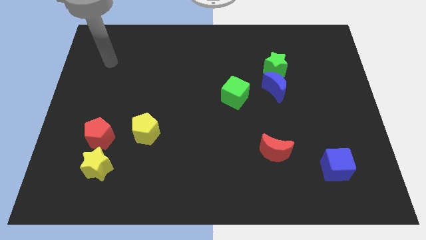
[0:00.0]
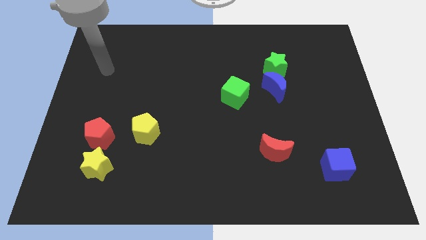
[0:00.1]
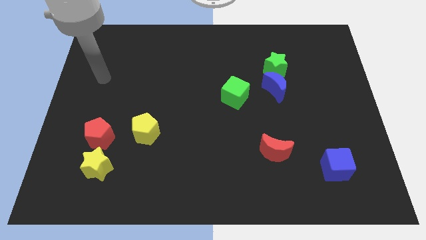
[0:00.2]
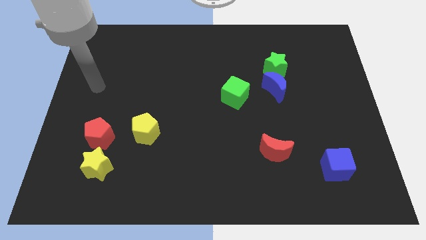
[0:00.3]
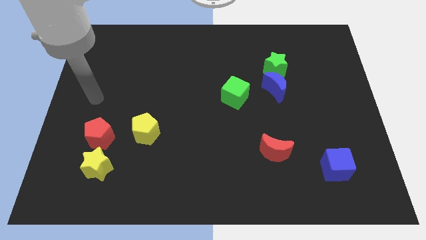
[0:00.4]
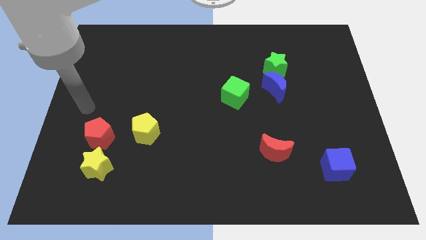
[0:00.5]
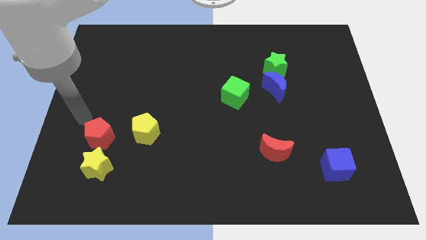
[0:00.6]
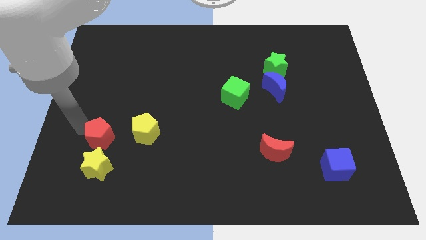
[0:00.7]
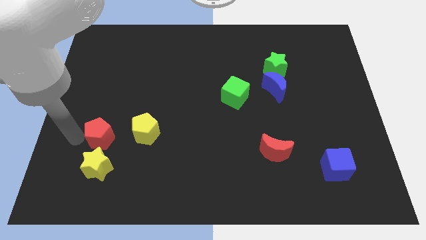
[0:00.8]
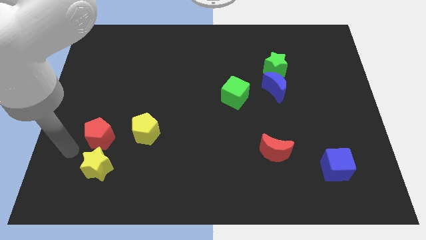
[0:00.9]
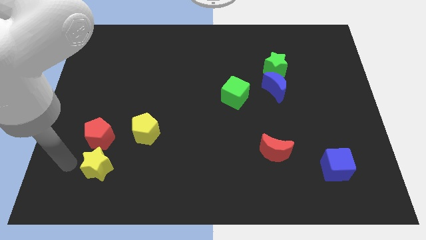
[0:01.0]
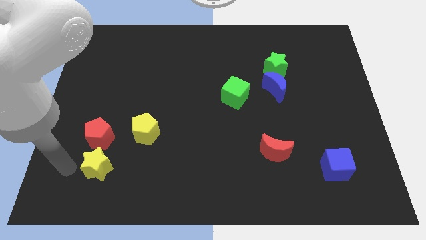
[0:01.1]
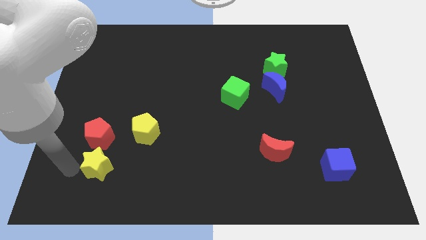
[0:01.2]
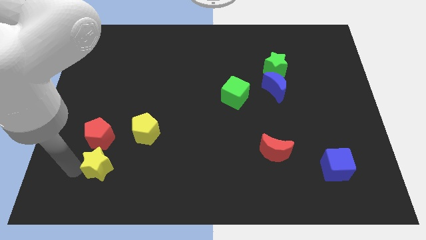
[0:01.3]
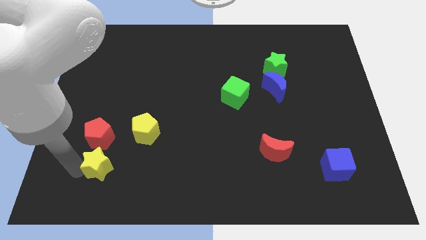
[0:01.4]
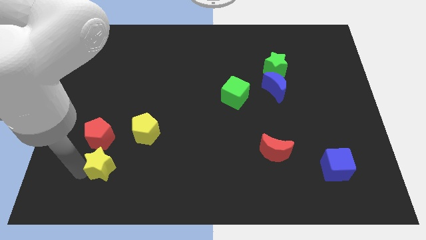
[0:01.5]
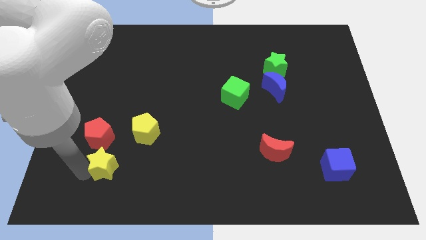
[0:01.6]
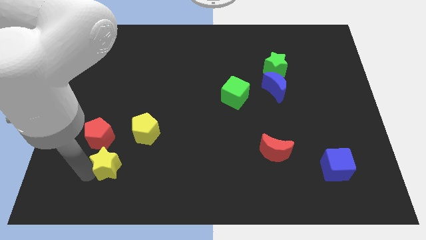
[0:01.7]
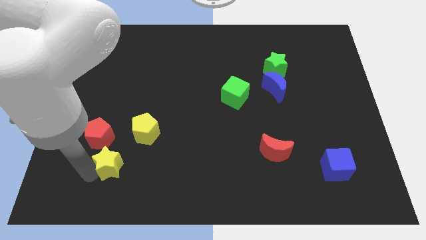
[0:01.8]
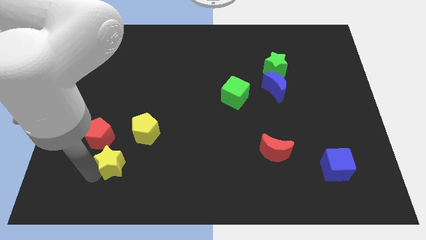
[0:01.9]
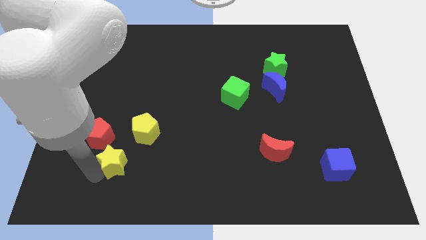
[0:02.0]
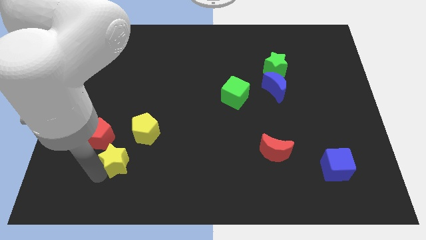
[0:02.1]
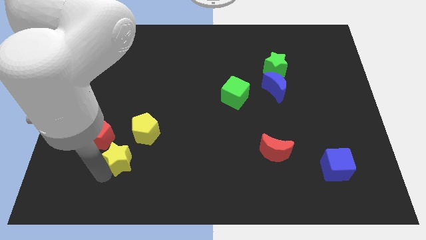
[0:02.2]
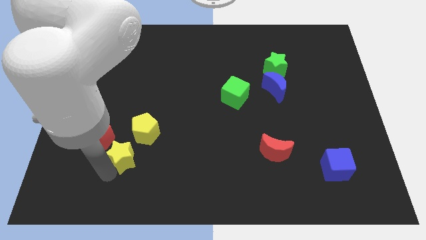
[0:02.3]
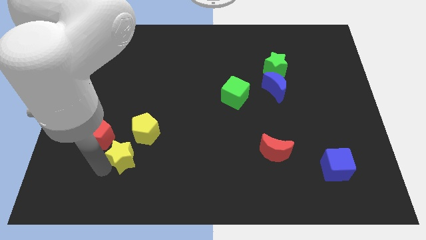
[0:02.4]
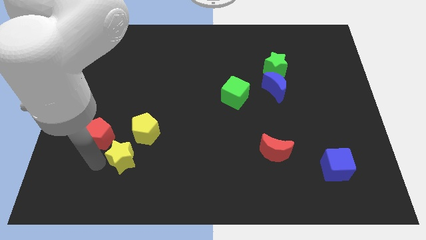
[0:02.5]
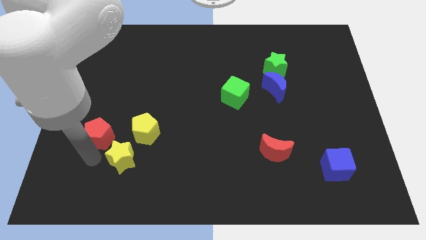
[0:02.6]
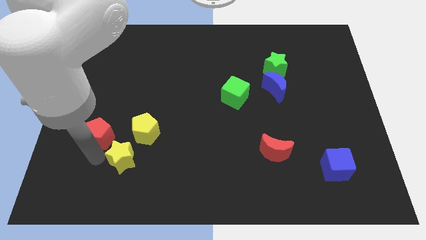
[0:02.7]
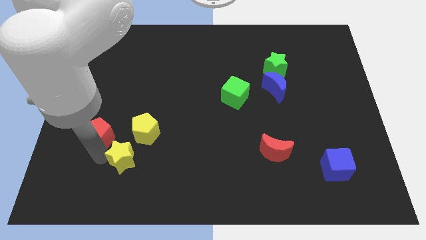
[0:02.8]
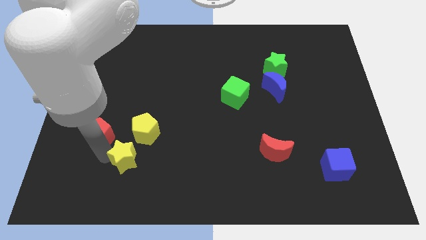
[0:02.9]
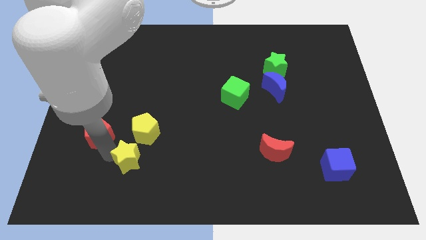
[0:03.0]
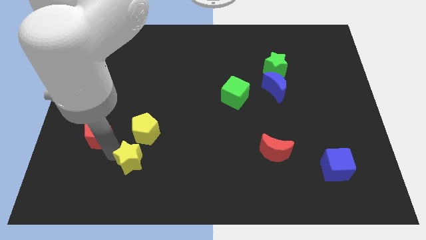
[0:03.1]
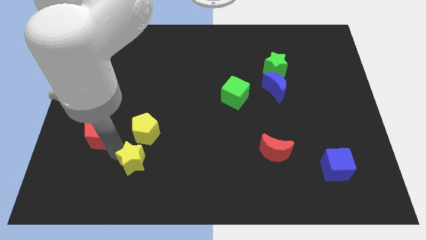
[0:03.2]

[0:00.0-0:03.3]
push the yellow star right a little bit

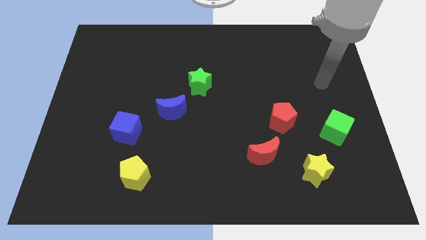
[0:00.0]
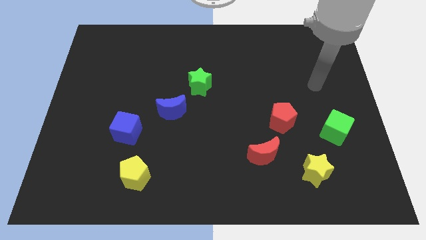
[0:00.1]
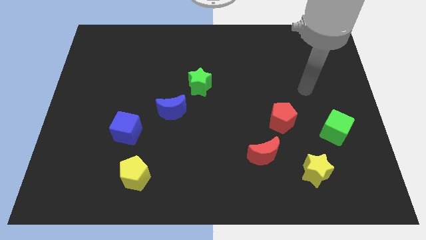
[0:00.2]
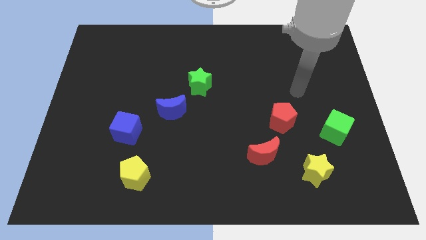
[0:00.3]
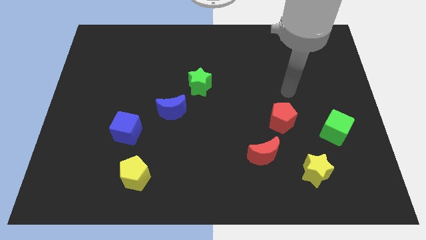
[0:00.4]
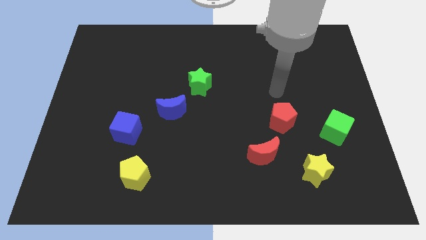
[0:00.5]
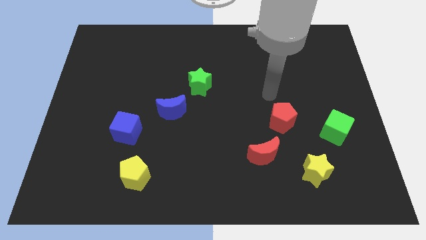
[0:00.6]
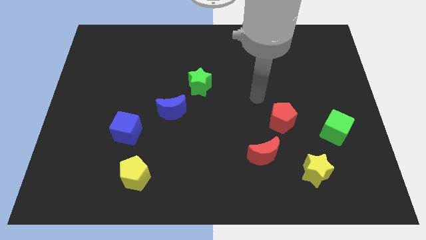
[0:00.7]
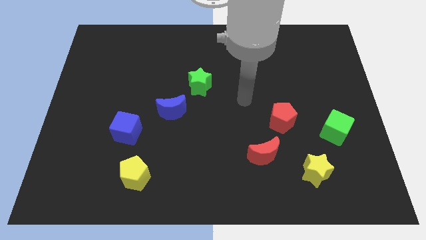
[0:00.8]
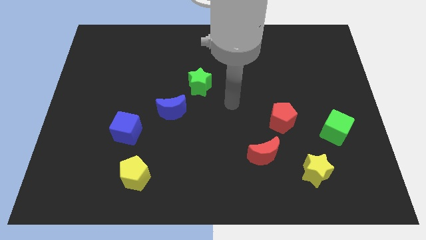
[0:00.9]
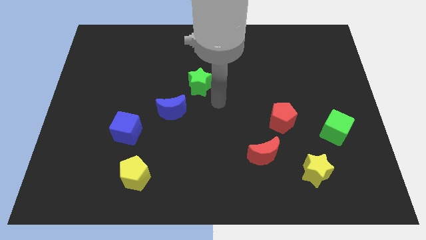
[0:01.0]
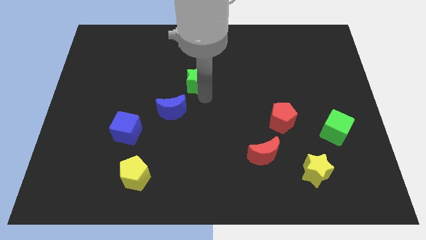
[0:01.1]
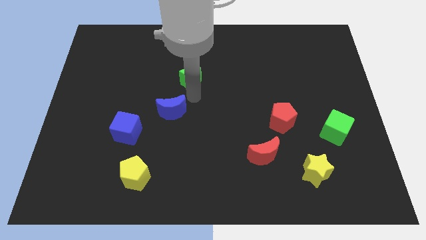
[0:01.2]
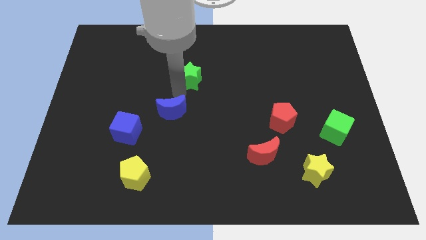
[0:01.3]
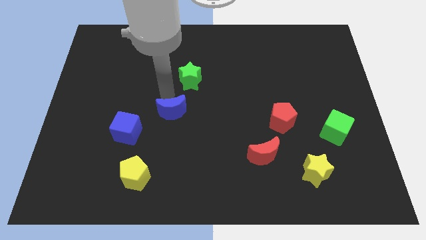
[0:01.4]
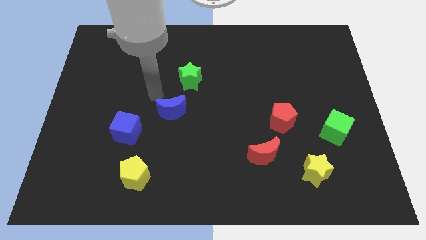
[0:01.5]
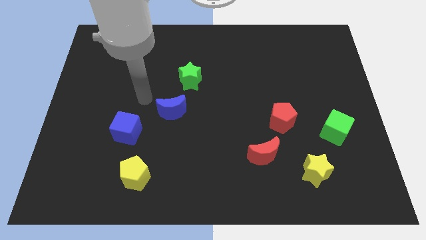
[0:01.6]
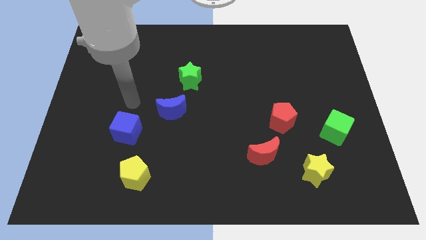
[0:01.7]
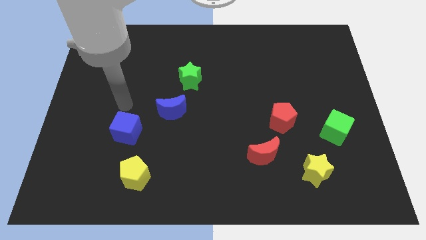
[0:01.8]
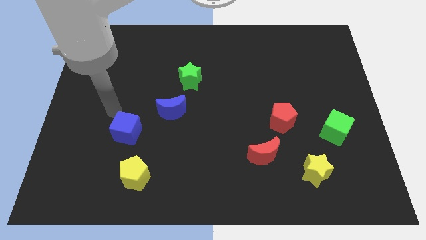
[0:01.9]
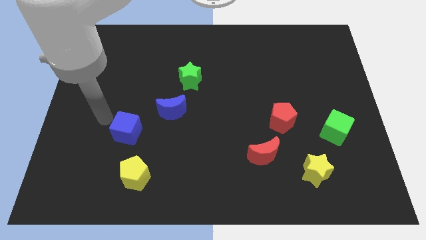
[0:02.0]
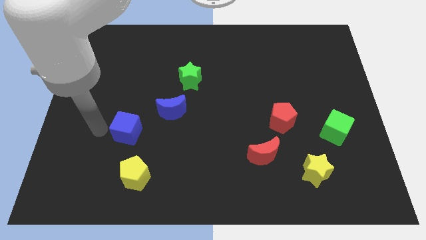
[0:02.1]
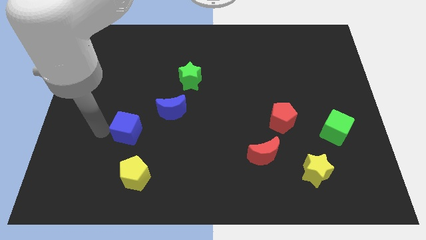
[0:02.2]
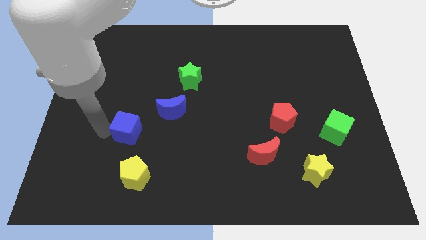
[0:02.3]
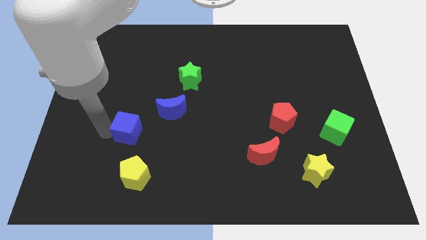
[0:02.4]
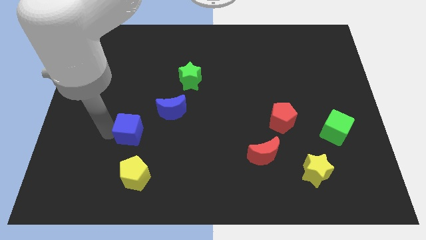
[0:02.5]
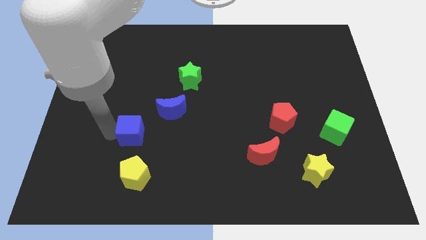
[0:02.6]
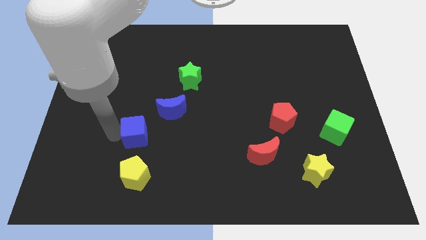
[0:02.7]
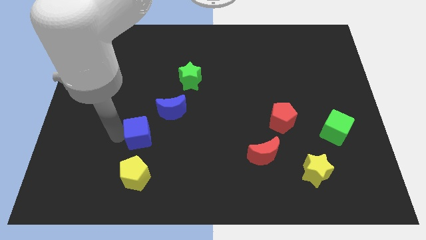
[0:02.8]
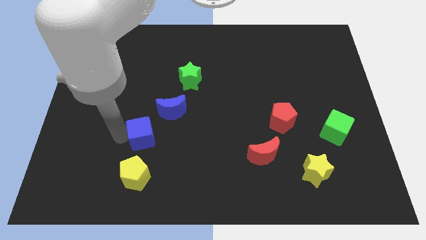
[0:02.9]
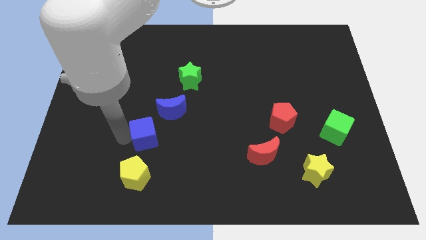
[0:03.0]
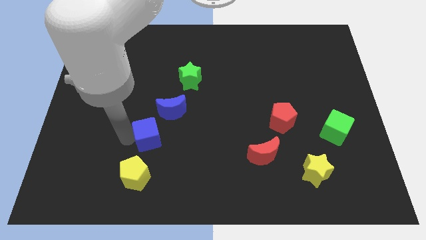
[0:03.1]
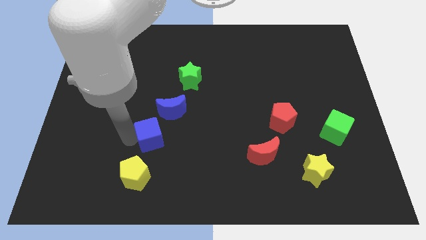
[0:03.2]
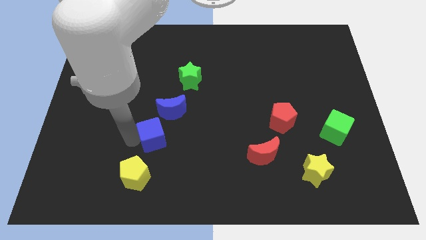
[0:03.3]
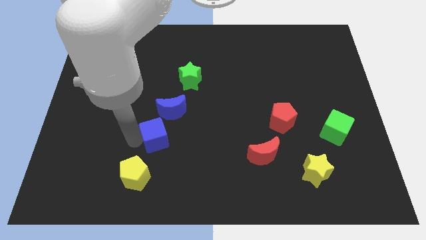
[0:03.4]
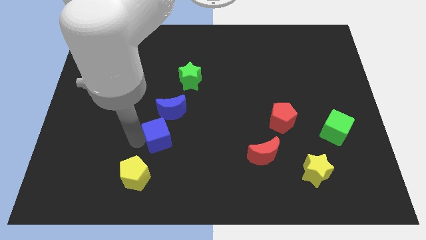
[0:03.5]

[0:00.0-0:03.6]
move the blue cube a bit to the right

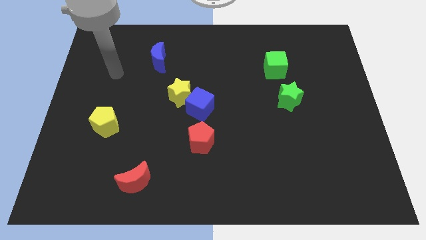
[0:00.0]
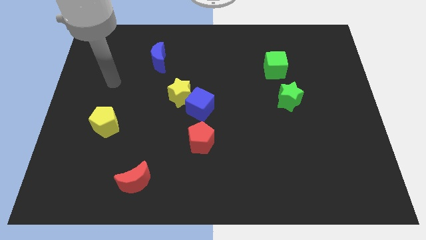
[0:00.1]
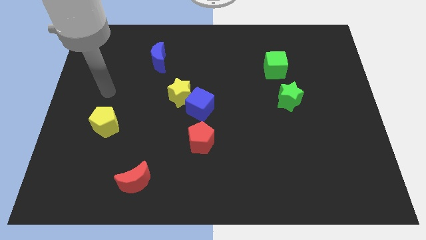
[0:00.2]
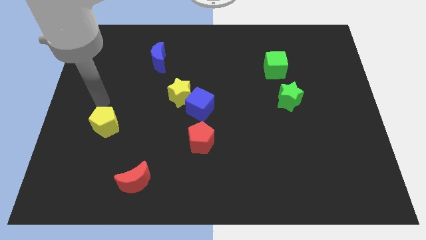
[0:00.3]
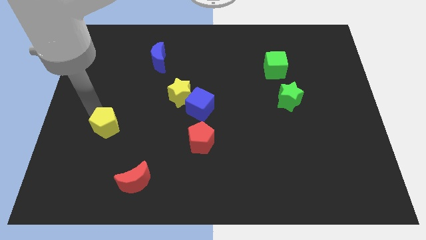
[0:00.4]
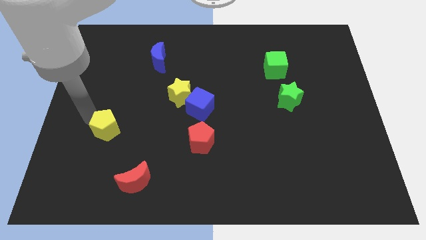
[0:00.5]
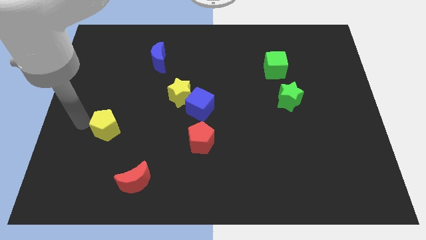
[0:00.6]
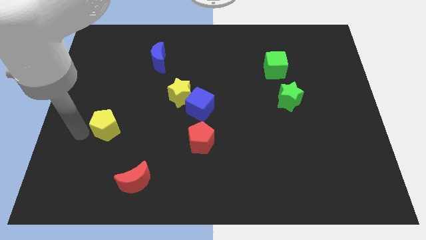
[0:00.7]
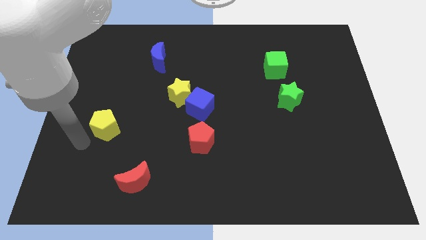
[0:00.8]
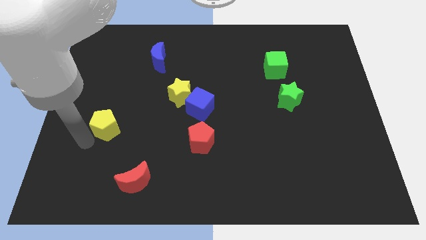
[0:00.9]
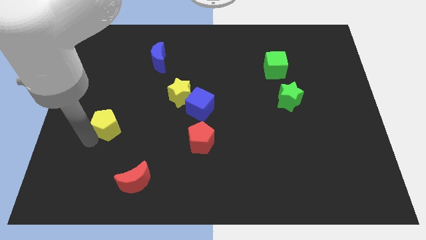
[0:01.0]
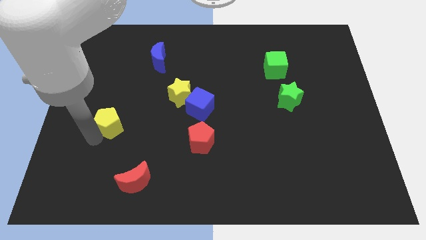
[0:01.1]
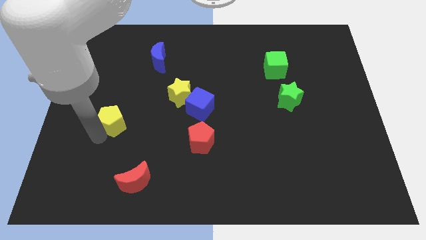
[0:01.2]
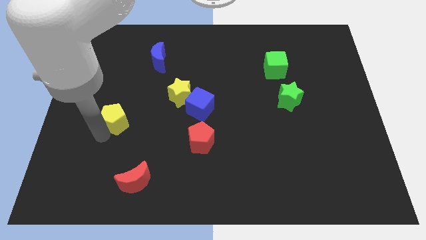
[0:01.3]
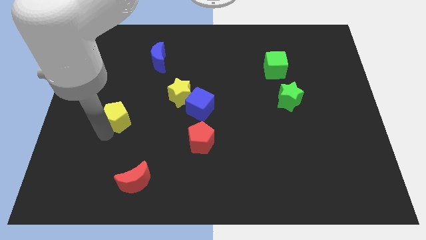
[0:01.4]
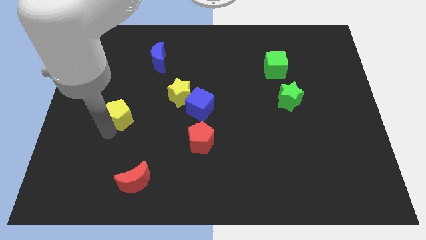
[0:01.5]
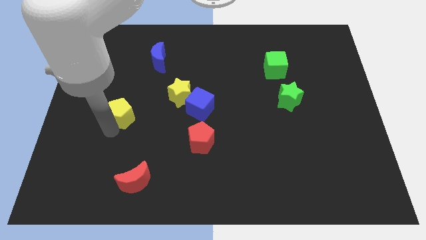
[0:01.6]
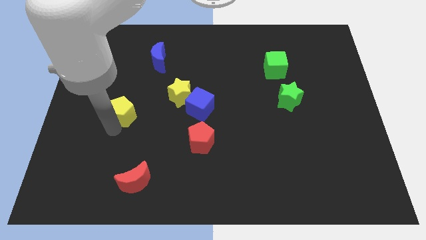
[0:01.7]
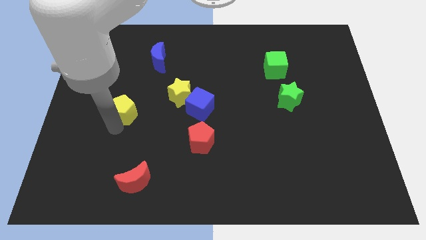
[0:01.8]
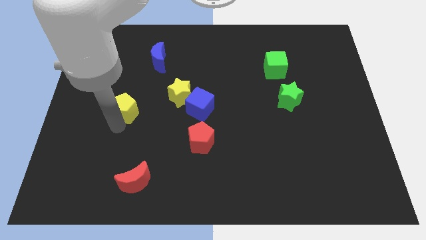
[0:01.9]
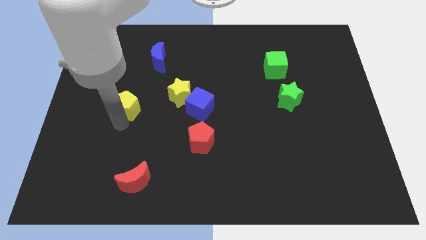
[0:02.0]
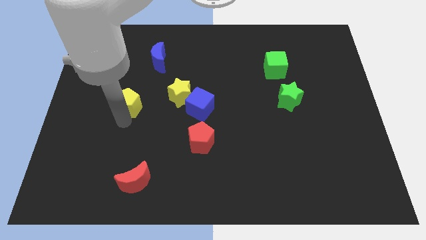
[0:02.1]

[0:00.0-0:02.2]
push the yellow pentagon up and then right a little bit
